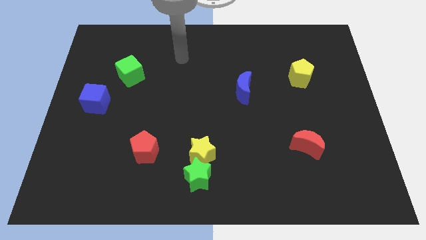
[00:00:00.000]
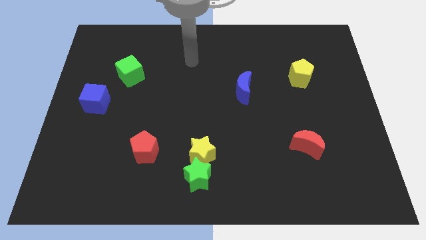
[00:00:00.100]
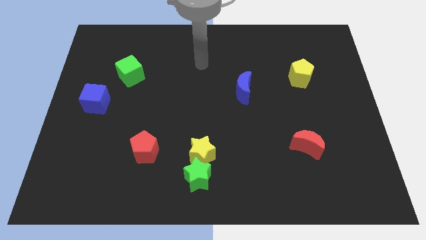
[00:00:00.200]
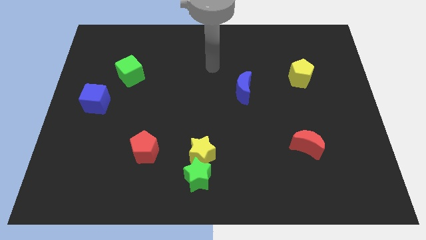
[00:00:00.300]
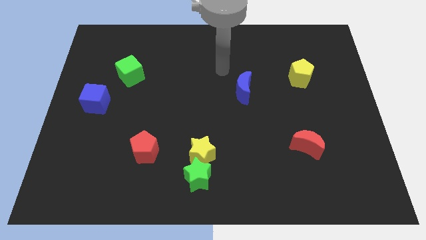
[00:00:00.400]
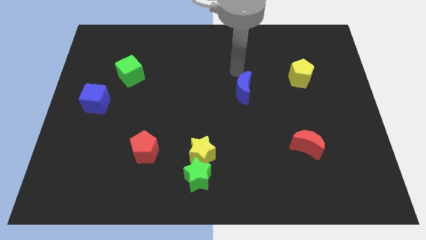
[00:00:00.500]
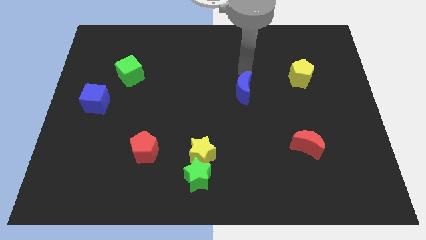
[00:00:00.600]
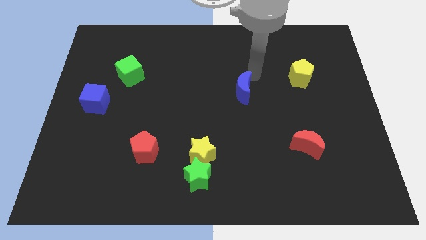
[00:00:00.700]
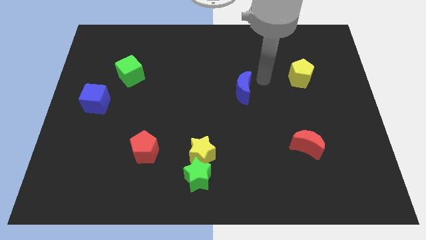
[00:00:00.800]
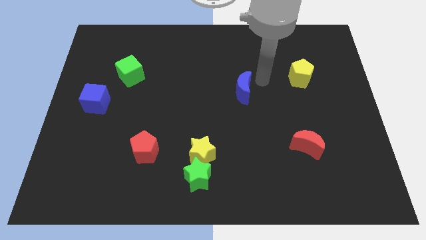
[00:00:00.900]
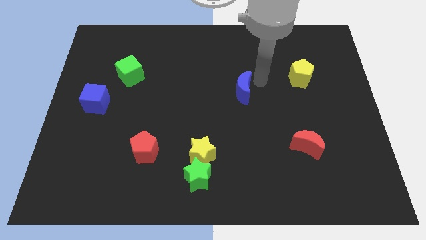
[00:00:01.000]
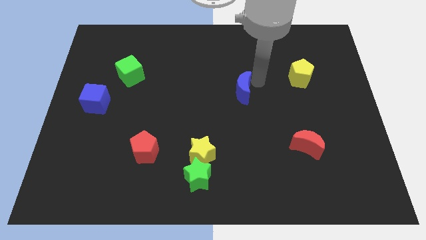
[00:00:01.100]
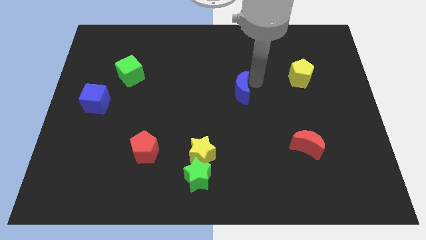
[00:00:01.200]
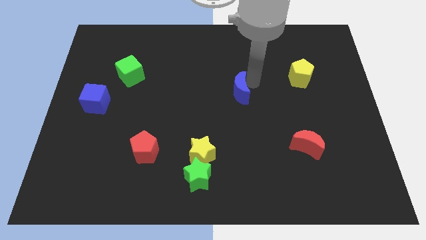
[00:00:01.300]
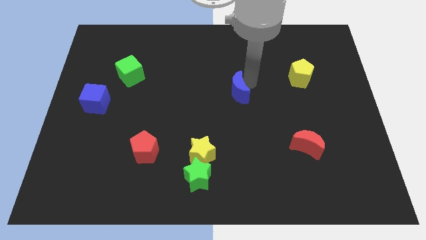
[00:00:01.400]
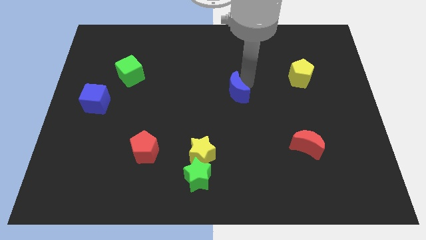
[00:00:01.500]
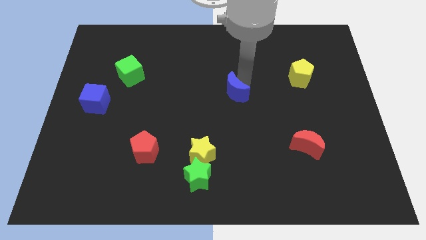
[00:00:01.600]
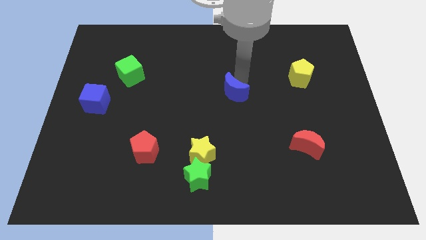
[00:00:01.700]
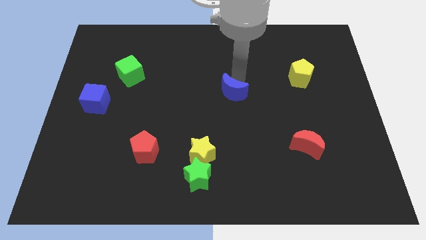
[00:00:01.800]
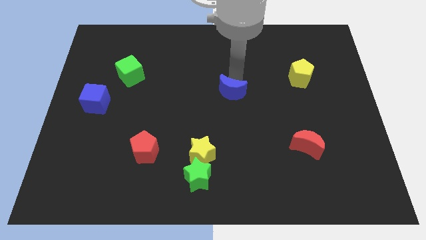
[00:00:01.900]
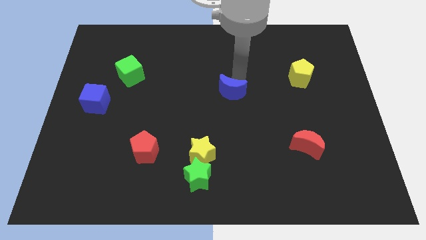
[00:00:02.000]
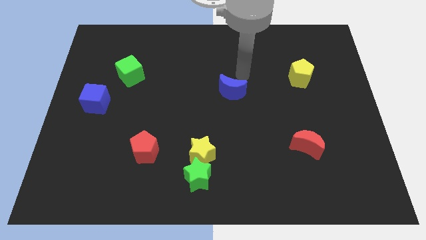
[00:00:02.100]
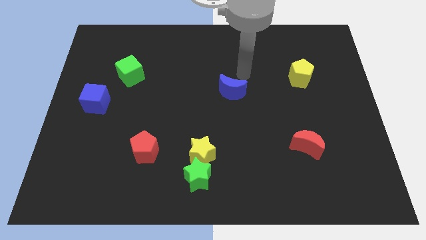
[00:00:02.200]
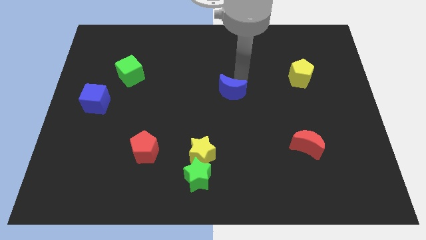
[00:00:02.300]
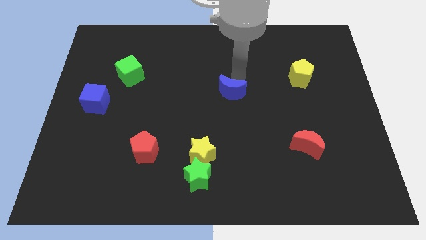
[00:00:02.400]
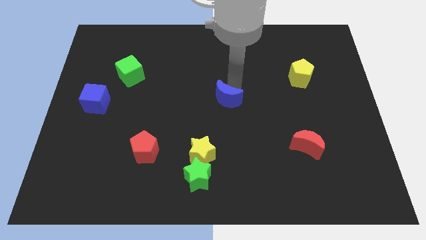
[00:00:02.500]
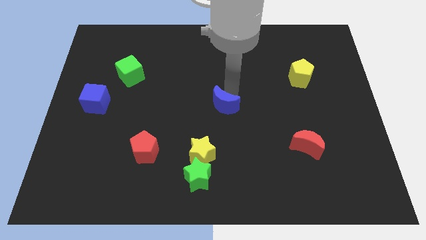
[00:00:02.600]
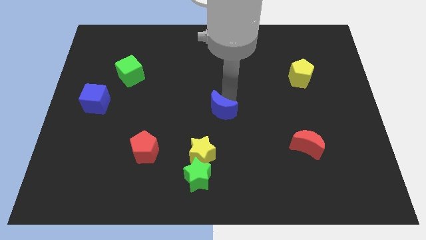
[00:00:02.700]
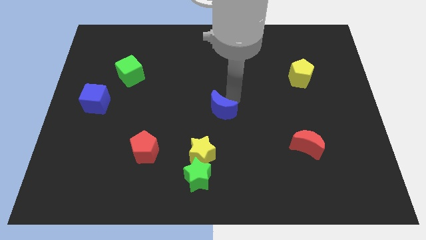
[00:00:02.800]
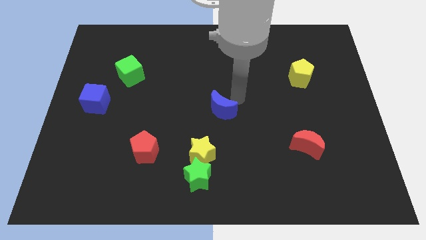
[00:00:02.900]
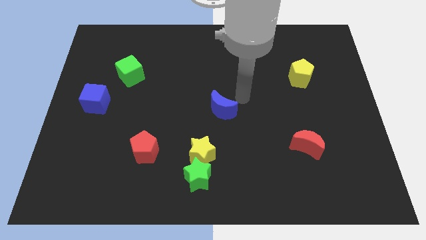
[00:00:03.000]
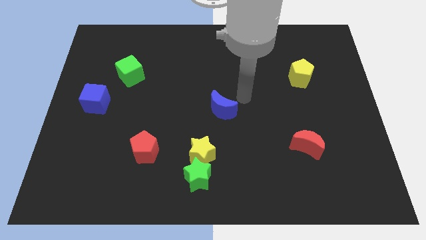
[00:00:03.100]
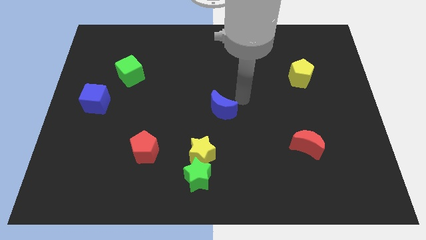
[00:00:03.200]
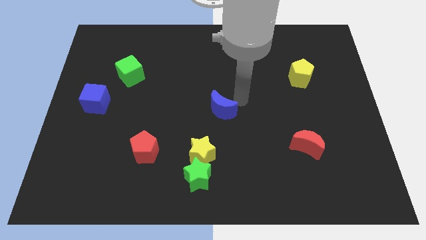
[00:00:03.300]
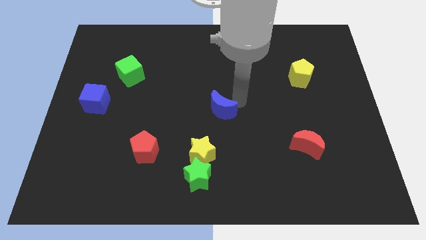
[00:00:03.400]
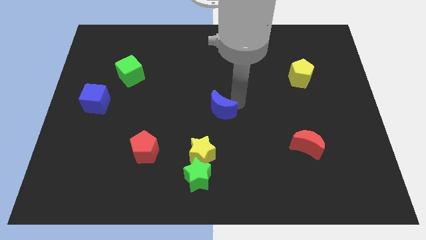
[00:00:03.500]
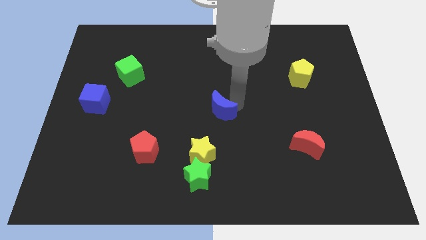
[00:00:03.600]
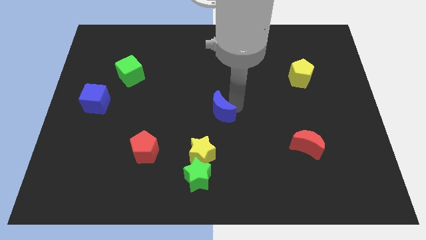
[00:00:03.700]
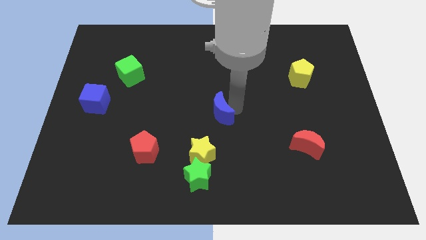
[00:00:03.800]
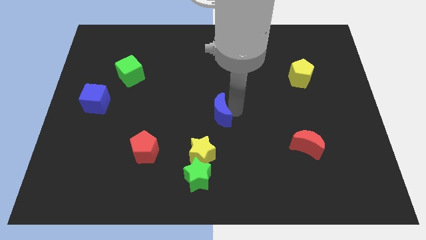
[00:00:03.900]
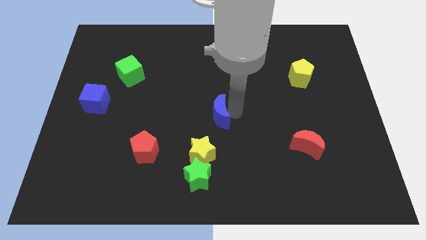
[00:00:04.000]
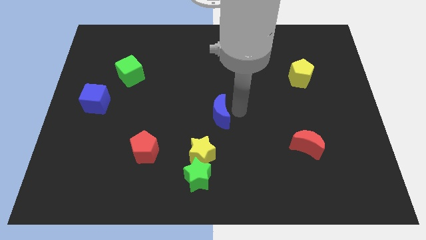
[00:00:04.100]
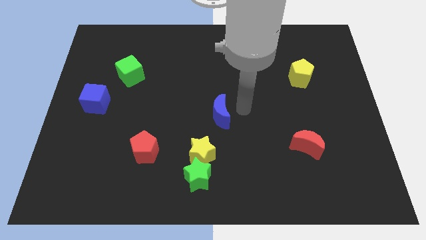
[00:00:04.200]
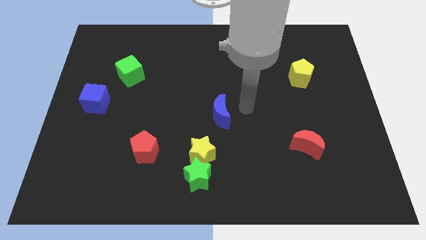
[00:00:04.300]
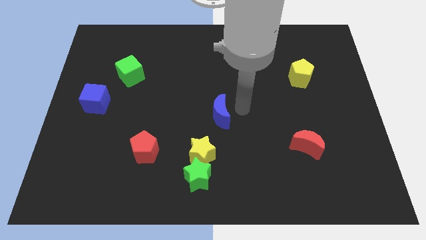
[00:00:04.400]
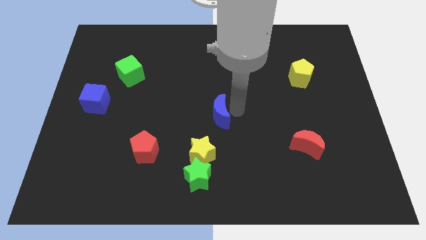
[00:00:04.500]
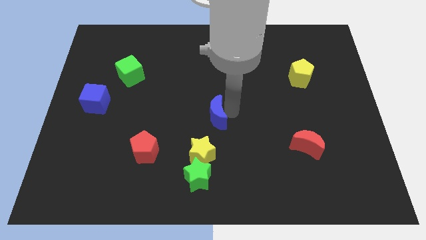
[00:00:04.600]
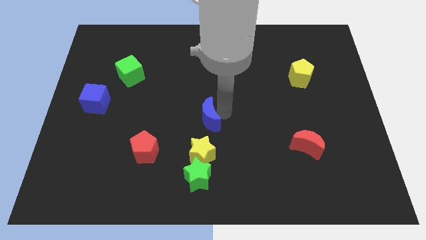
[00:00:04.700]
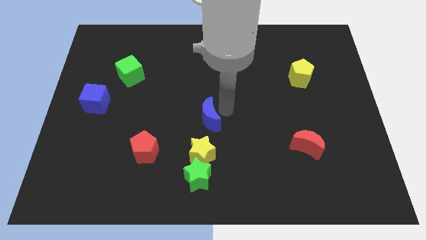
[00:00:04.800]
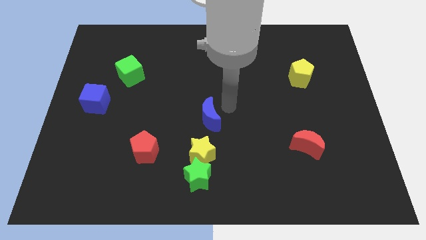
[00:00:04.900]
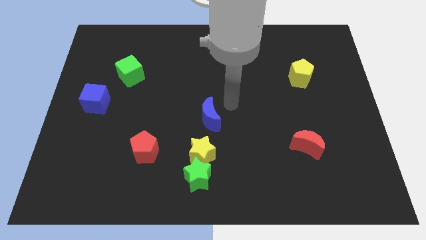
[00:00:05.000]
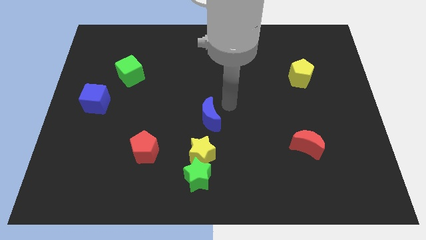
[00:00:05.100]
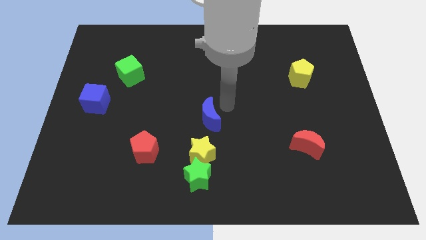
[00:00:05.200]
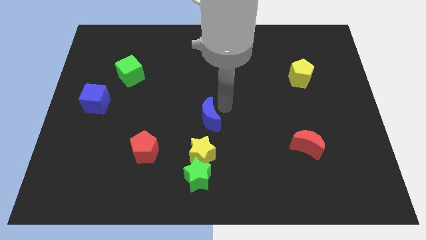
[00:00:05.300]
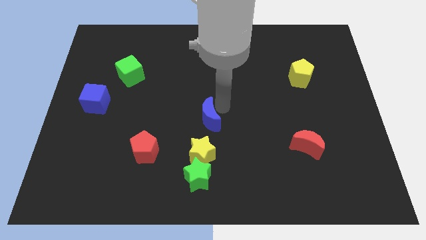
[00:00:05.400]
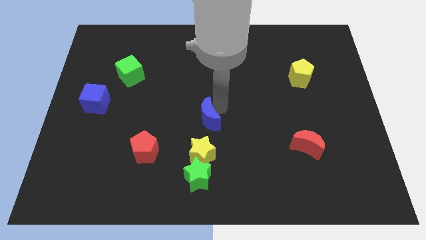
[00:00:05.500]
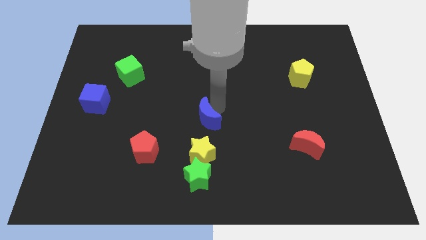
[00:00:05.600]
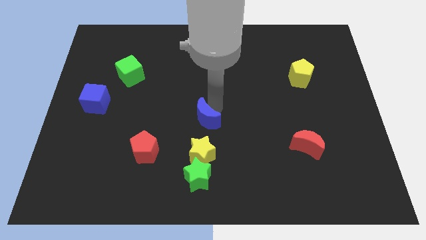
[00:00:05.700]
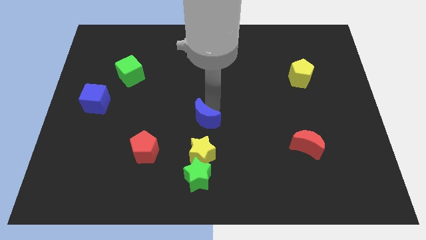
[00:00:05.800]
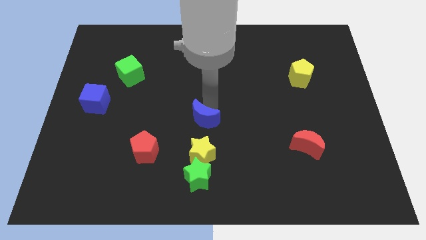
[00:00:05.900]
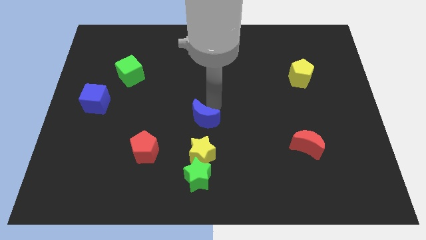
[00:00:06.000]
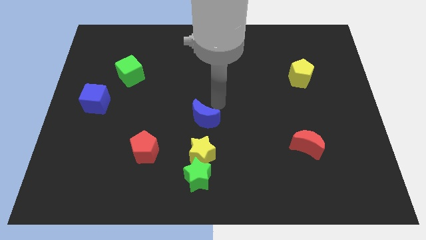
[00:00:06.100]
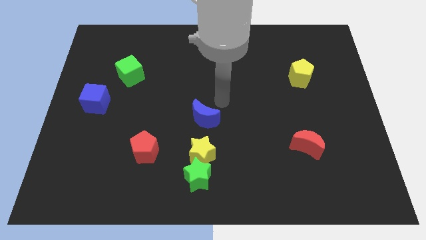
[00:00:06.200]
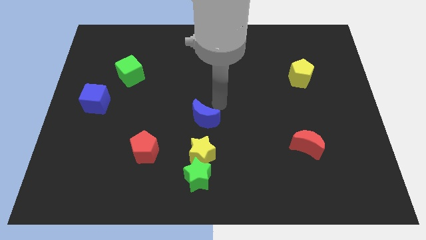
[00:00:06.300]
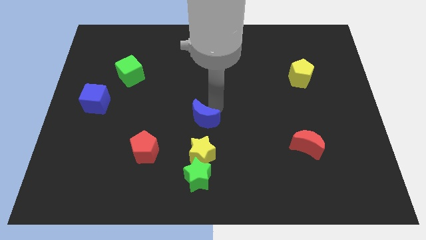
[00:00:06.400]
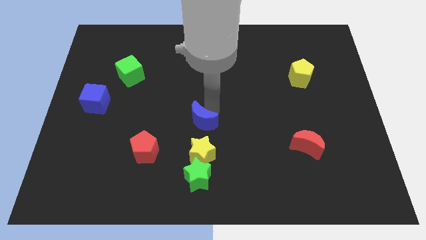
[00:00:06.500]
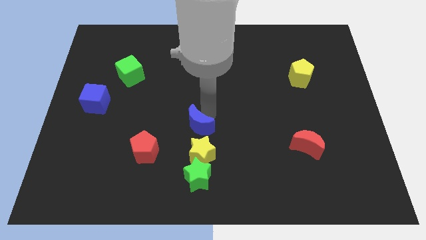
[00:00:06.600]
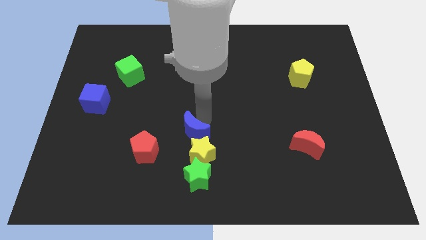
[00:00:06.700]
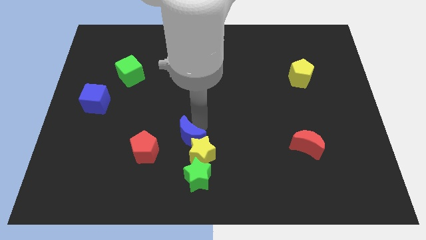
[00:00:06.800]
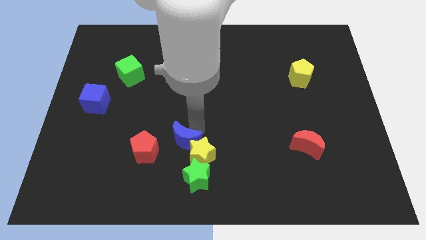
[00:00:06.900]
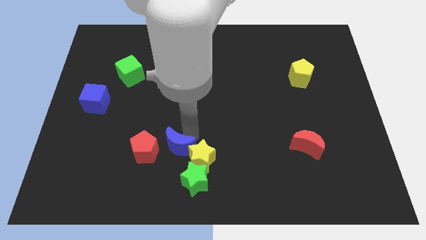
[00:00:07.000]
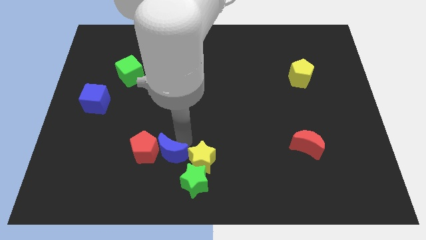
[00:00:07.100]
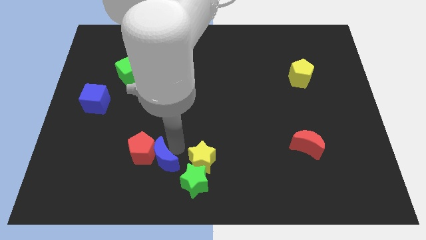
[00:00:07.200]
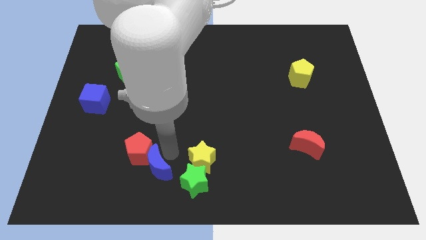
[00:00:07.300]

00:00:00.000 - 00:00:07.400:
slide the blue moon just left of the green star
